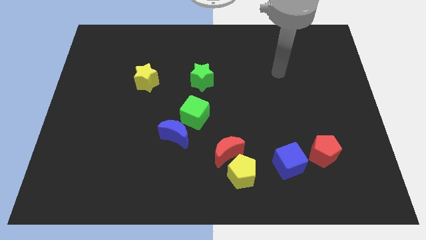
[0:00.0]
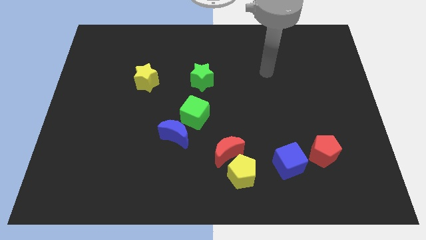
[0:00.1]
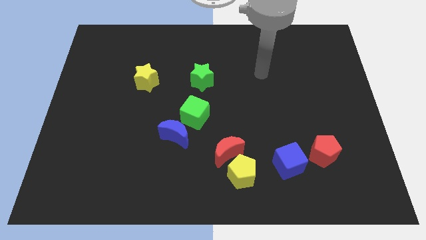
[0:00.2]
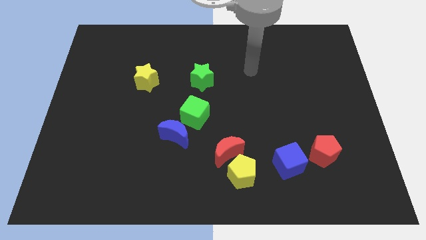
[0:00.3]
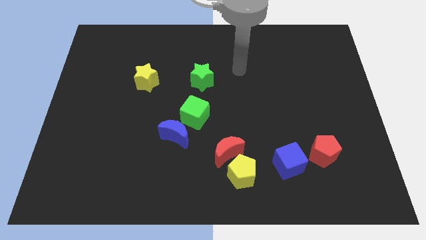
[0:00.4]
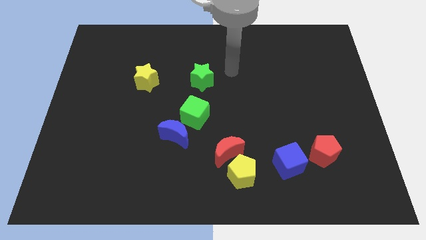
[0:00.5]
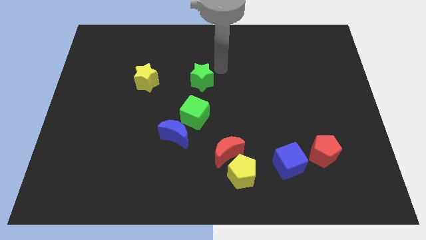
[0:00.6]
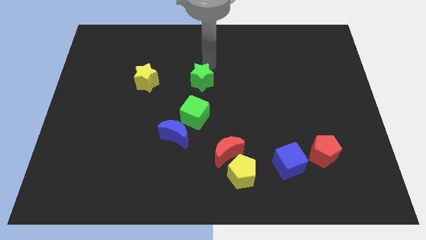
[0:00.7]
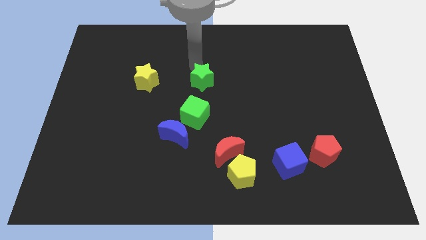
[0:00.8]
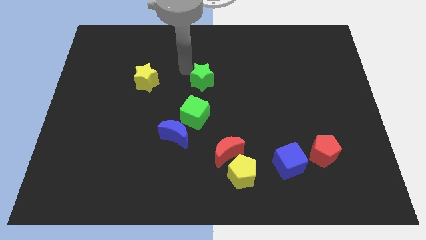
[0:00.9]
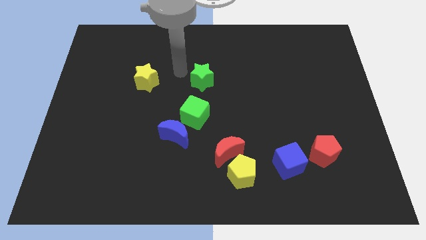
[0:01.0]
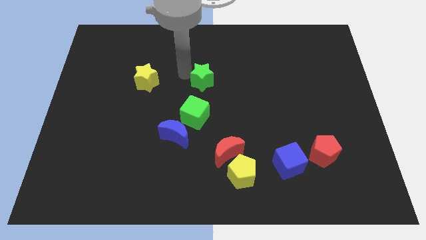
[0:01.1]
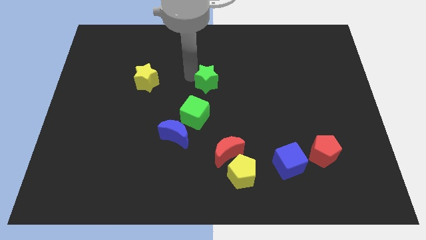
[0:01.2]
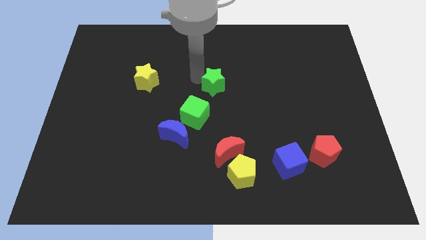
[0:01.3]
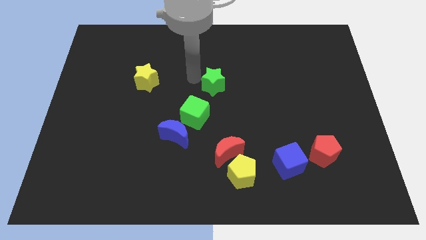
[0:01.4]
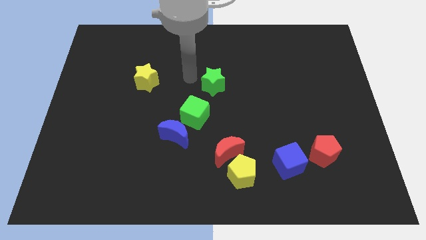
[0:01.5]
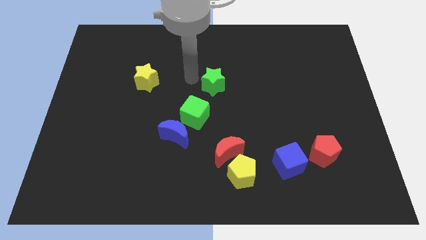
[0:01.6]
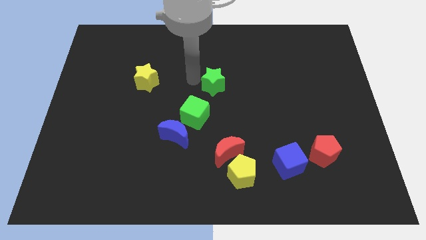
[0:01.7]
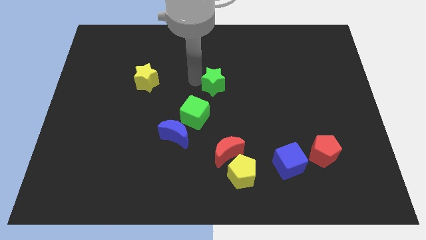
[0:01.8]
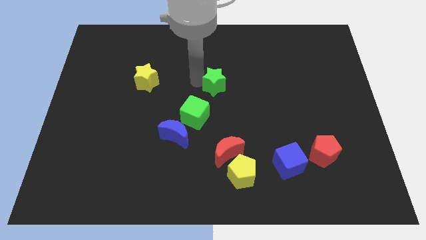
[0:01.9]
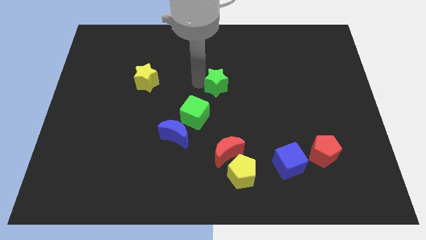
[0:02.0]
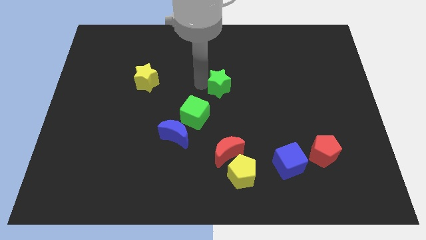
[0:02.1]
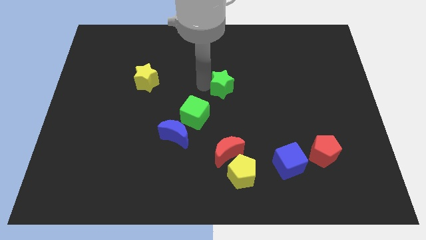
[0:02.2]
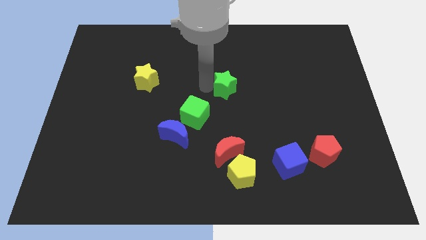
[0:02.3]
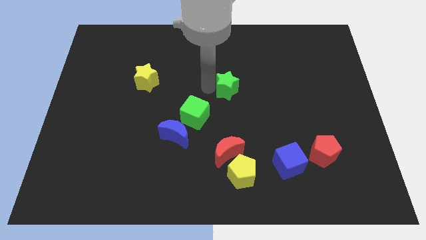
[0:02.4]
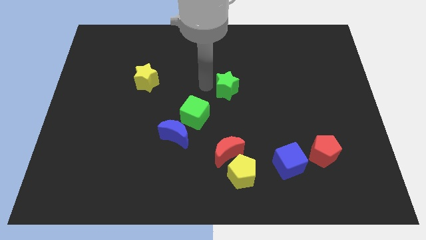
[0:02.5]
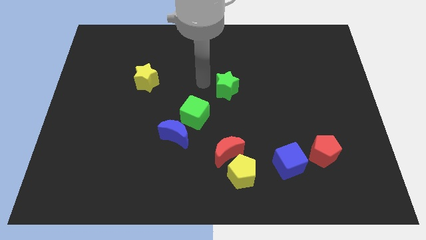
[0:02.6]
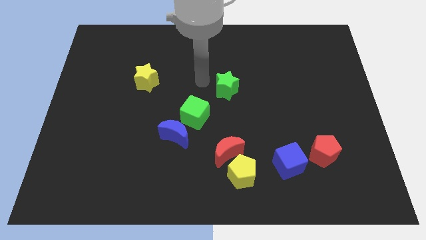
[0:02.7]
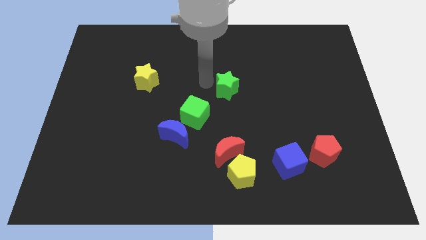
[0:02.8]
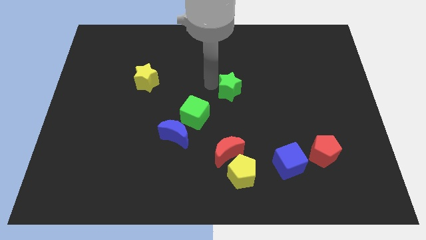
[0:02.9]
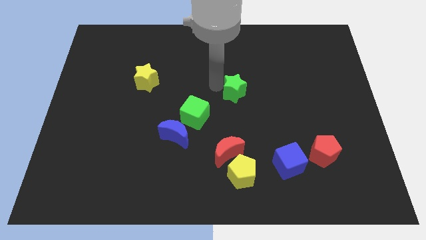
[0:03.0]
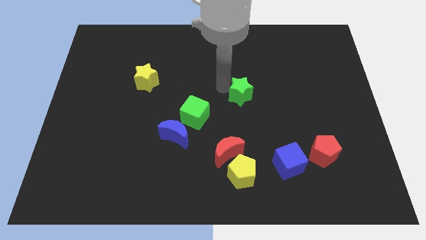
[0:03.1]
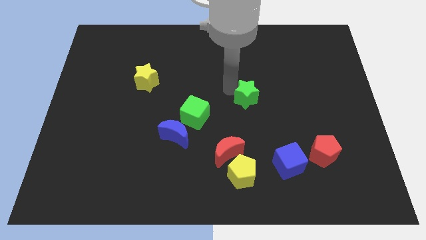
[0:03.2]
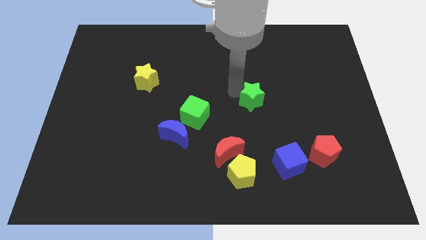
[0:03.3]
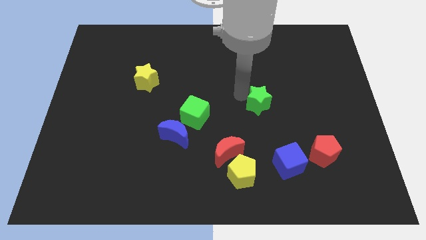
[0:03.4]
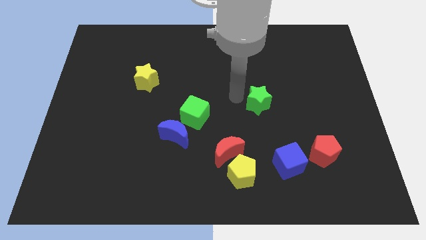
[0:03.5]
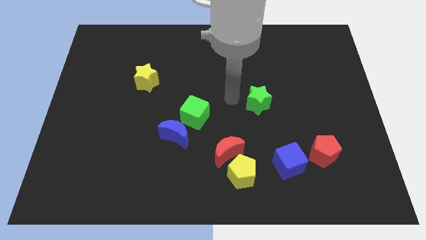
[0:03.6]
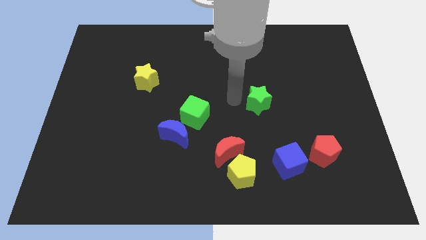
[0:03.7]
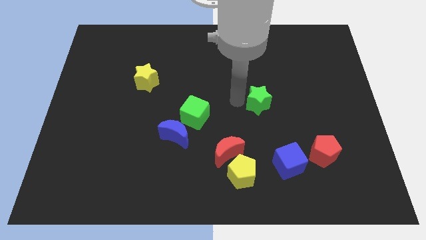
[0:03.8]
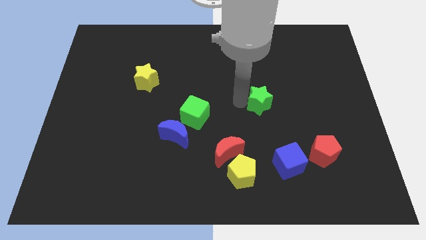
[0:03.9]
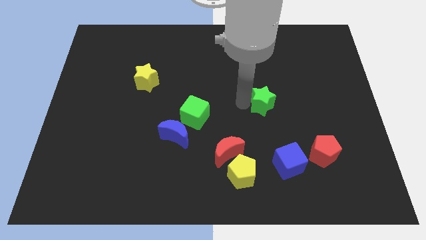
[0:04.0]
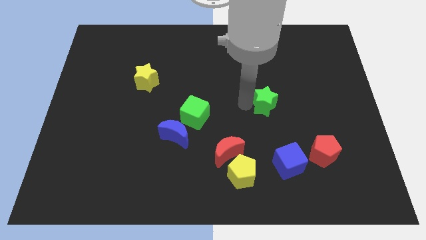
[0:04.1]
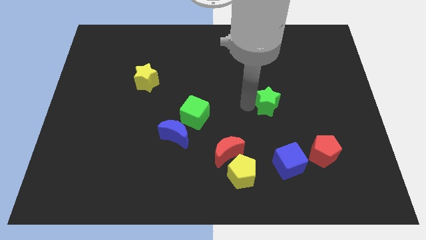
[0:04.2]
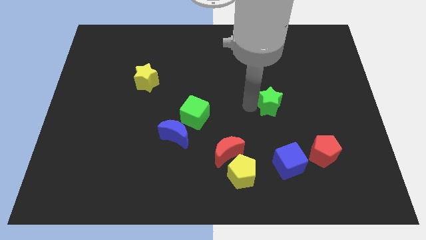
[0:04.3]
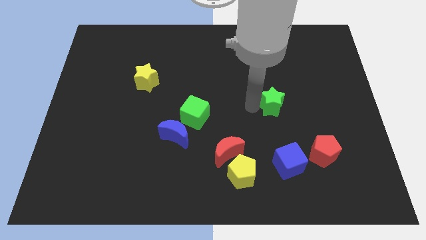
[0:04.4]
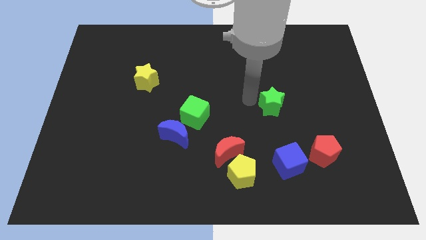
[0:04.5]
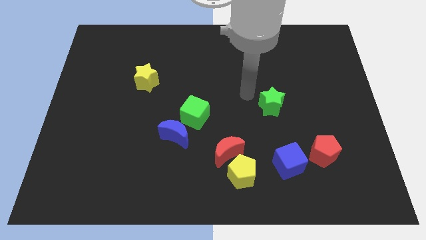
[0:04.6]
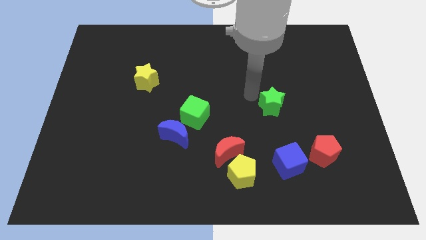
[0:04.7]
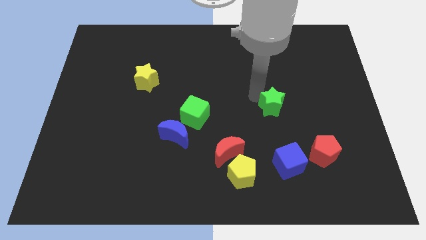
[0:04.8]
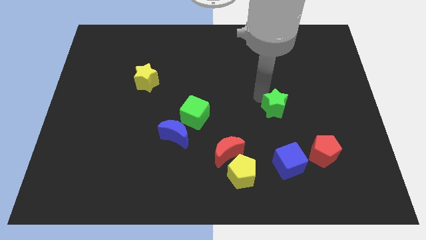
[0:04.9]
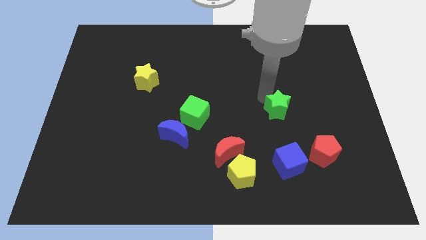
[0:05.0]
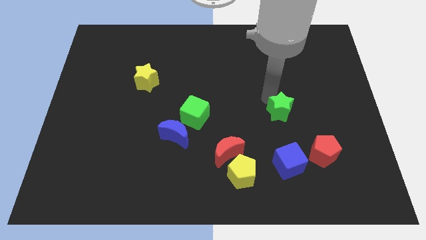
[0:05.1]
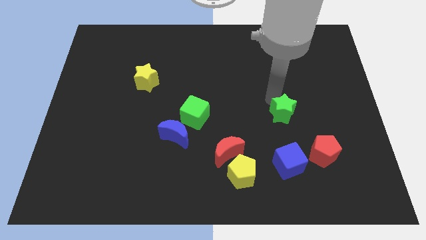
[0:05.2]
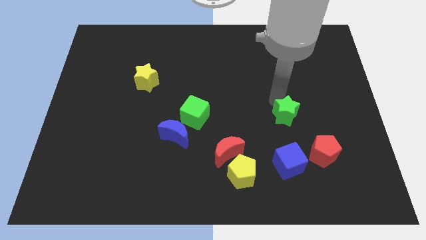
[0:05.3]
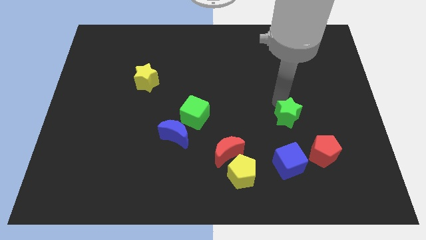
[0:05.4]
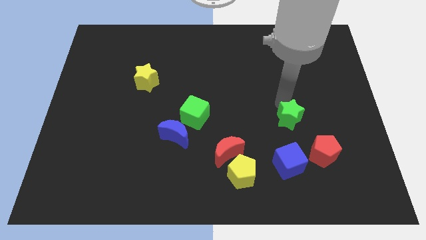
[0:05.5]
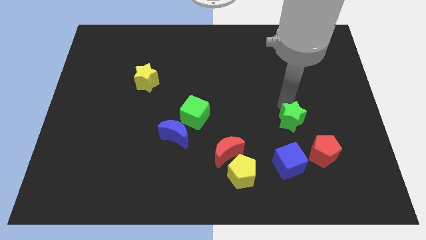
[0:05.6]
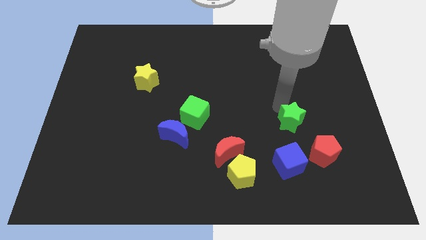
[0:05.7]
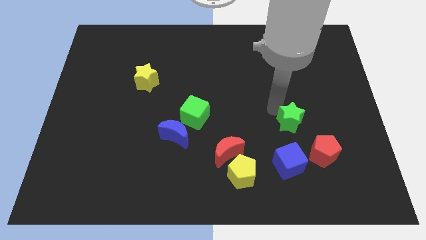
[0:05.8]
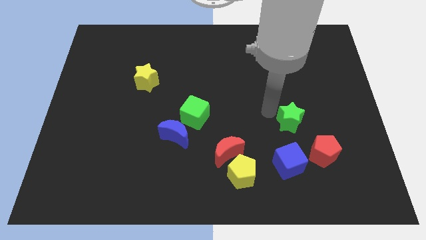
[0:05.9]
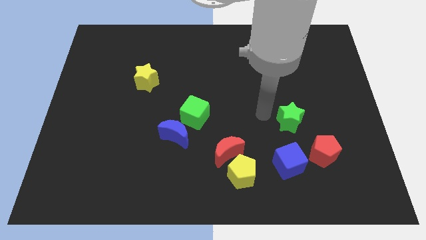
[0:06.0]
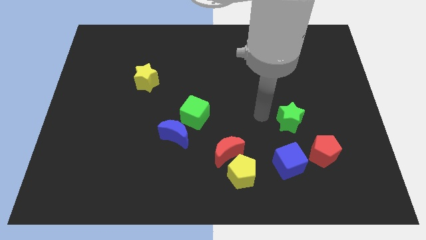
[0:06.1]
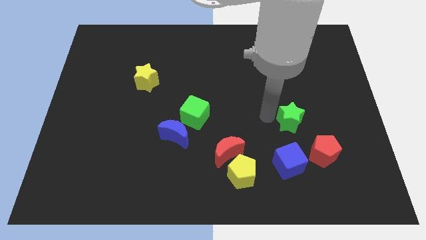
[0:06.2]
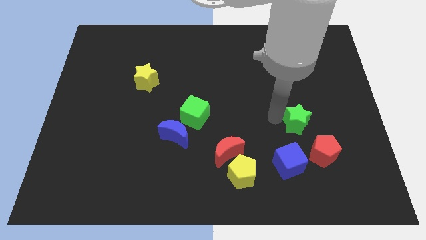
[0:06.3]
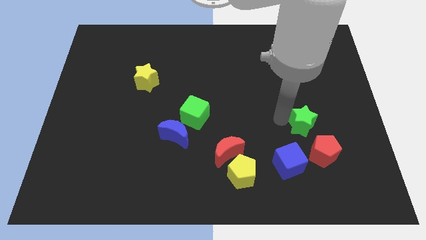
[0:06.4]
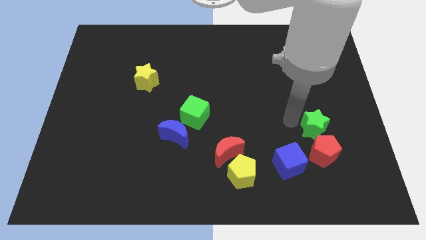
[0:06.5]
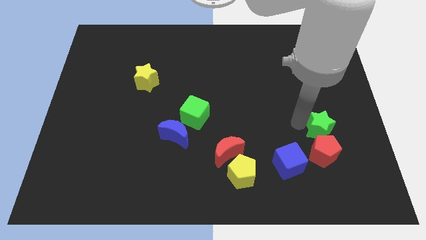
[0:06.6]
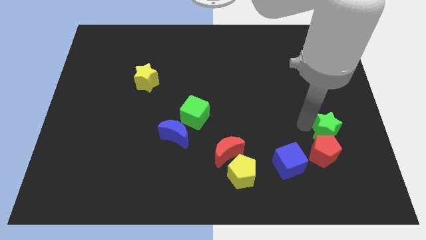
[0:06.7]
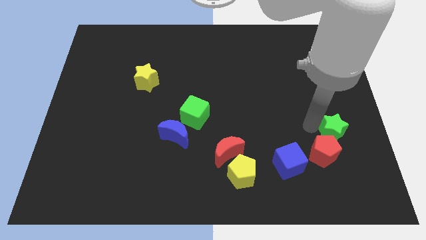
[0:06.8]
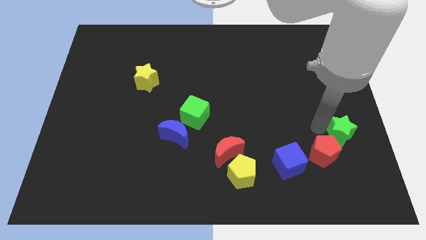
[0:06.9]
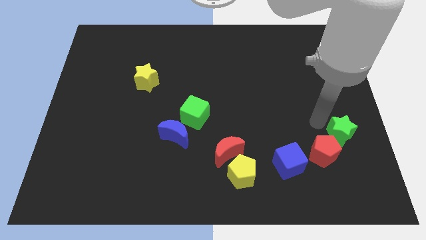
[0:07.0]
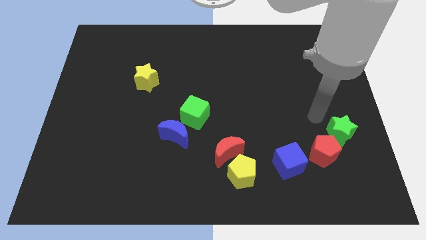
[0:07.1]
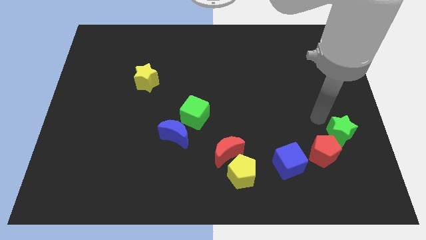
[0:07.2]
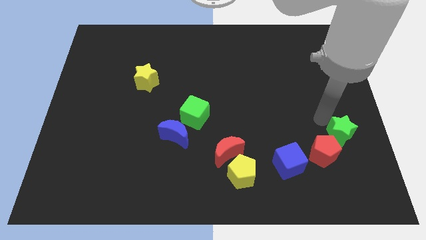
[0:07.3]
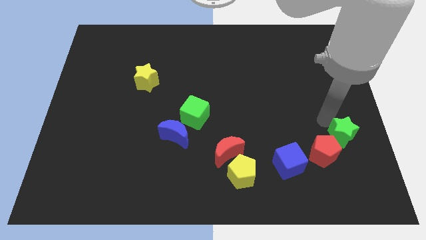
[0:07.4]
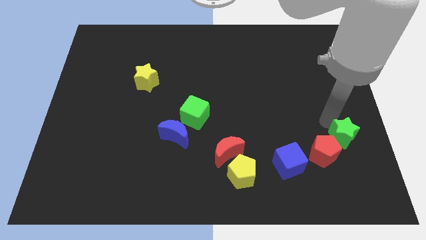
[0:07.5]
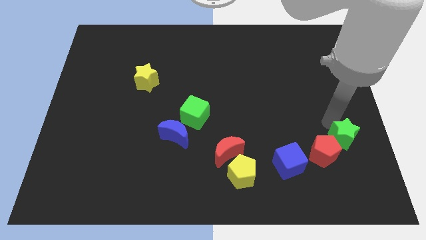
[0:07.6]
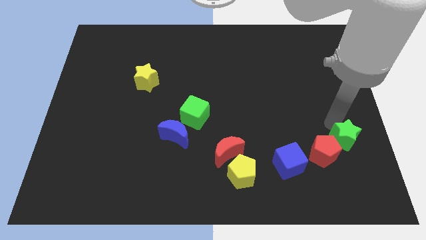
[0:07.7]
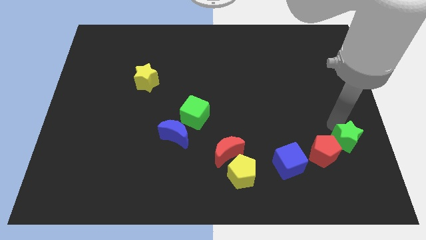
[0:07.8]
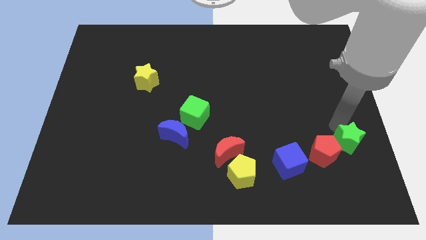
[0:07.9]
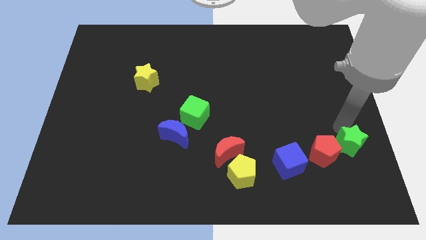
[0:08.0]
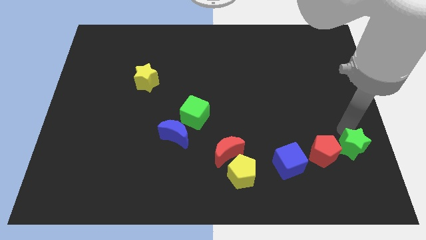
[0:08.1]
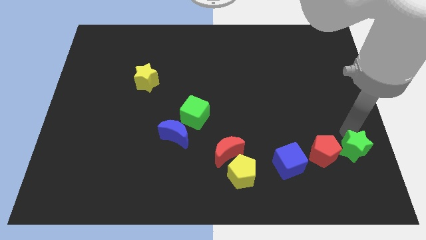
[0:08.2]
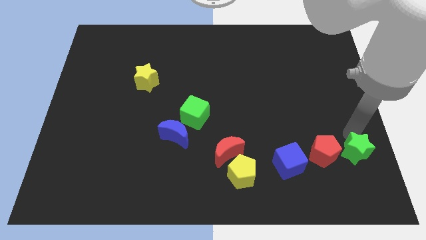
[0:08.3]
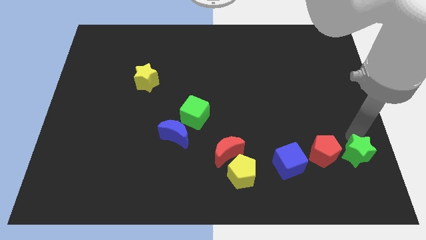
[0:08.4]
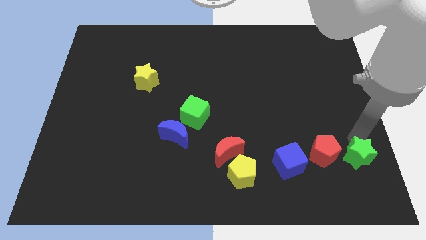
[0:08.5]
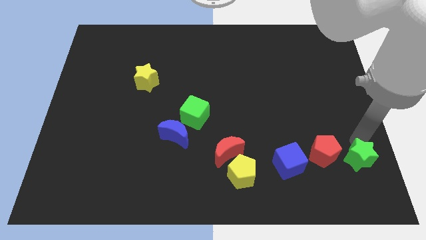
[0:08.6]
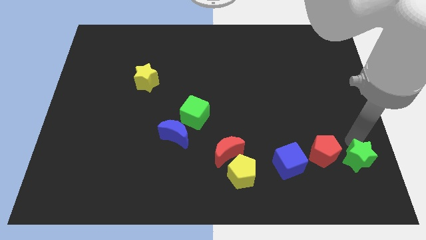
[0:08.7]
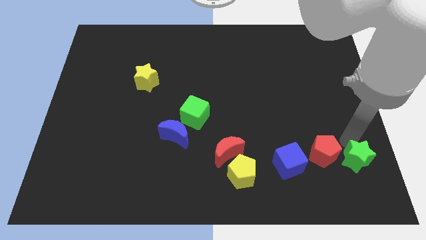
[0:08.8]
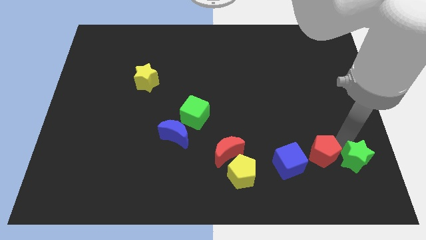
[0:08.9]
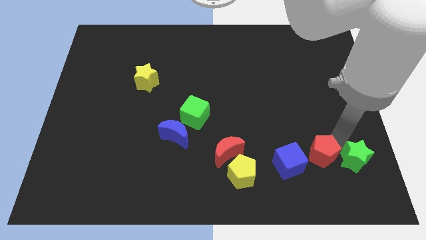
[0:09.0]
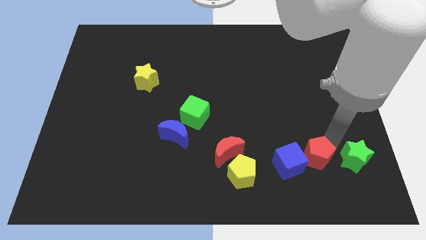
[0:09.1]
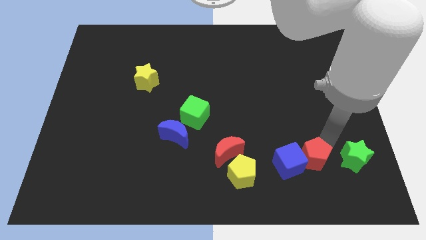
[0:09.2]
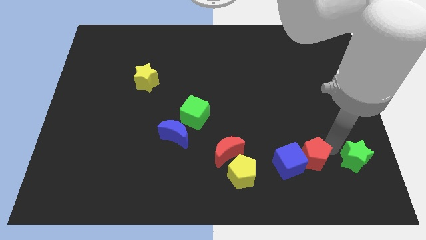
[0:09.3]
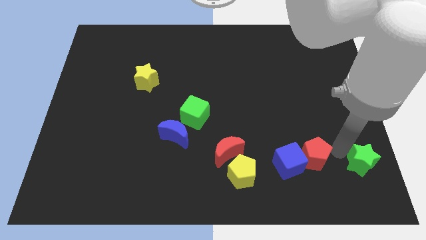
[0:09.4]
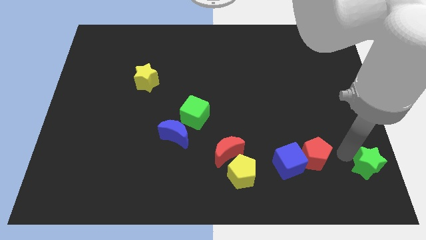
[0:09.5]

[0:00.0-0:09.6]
push the green star to the lower right corner
